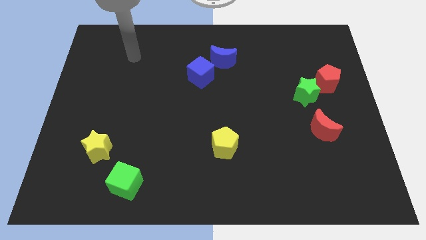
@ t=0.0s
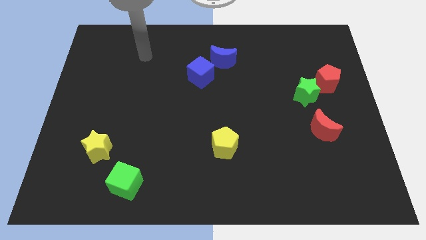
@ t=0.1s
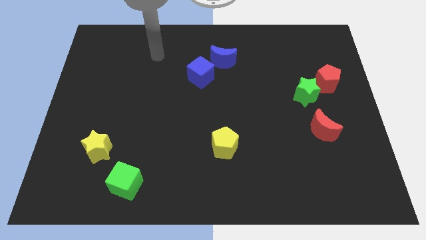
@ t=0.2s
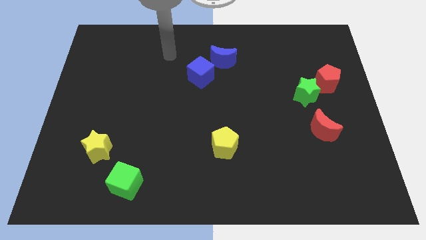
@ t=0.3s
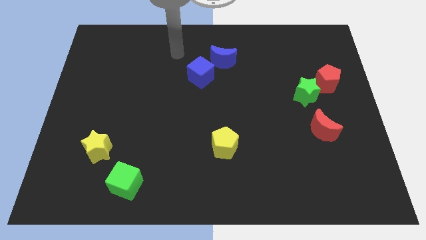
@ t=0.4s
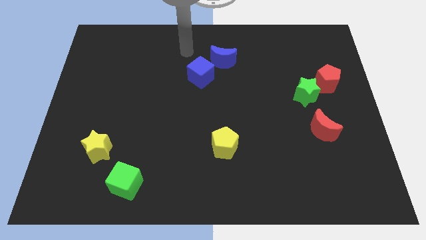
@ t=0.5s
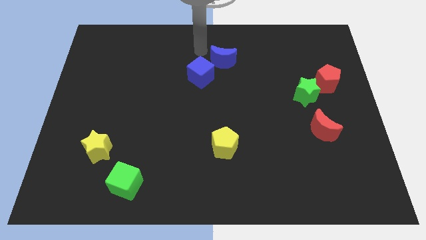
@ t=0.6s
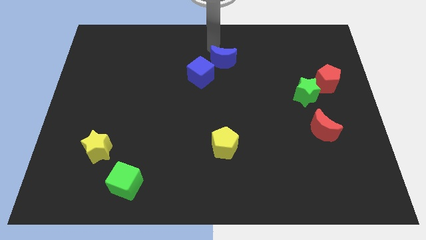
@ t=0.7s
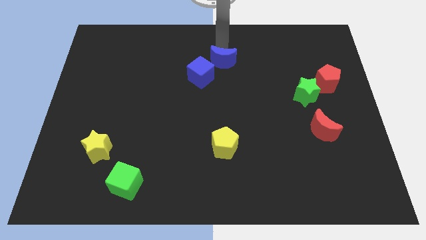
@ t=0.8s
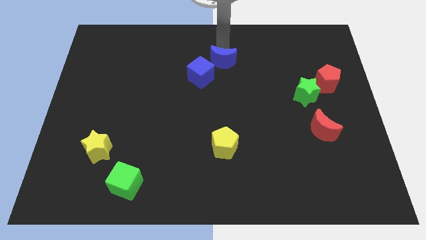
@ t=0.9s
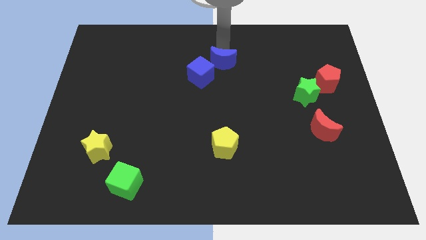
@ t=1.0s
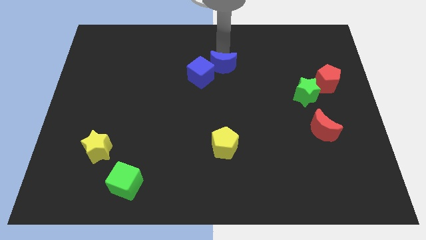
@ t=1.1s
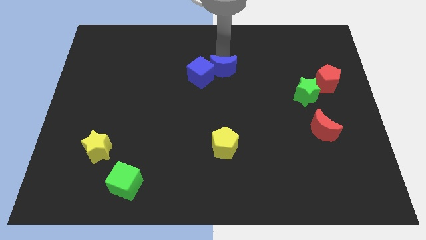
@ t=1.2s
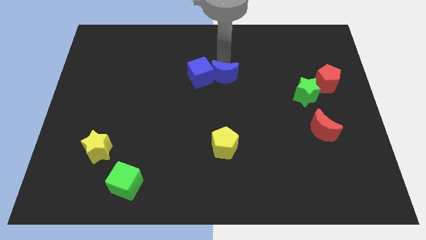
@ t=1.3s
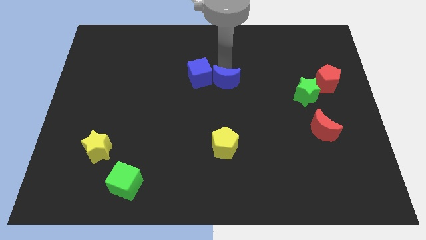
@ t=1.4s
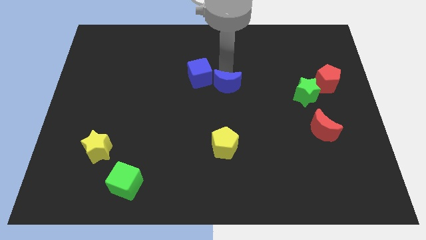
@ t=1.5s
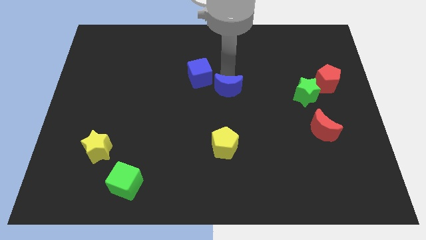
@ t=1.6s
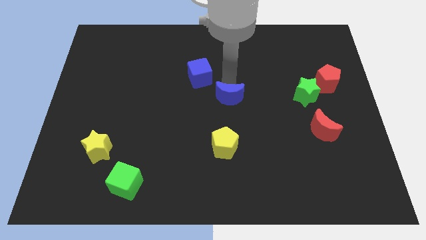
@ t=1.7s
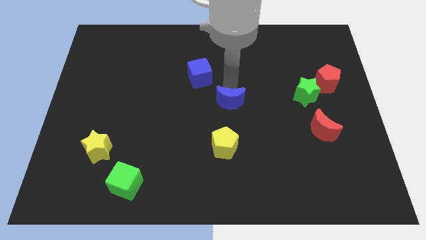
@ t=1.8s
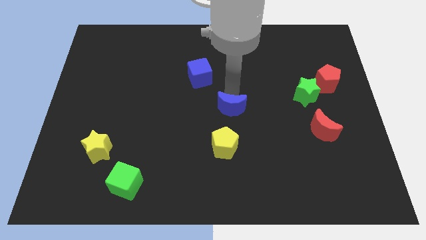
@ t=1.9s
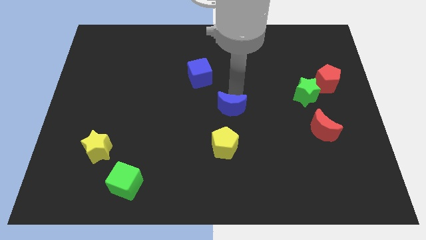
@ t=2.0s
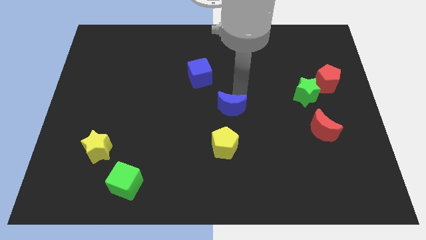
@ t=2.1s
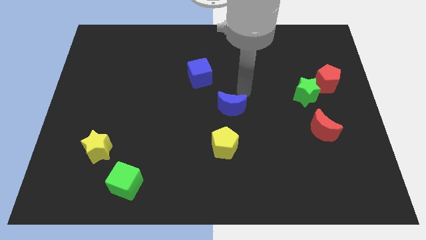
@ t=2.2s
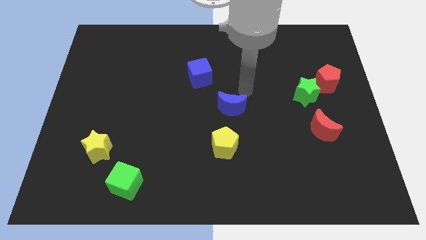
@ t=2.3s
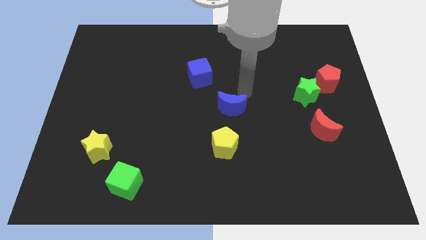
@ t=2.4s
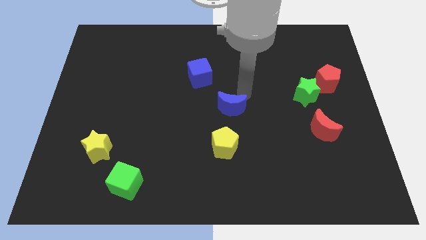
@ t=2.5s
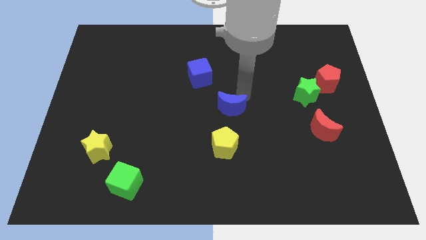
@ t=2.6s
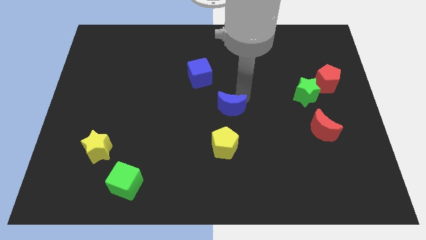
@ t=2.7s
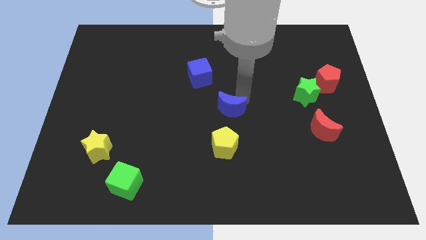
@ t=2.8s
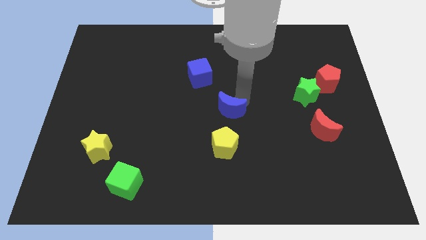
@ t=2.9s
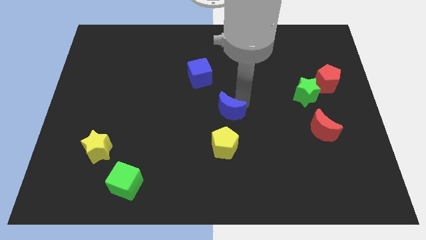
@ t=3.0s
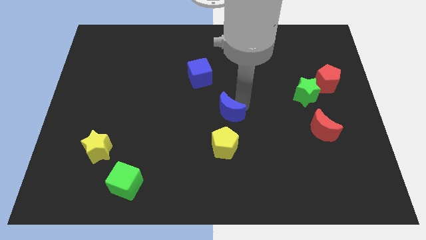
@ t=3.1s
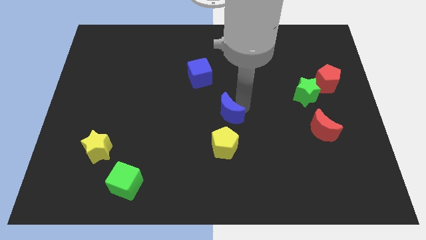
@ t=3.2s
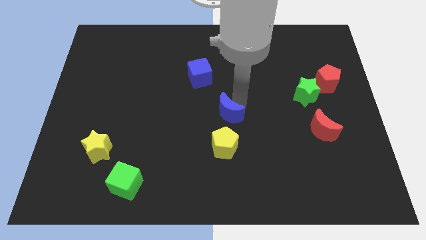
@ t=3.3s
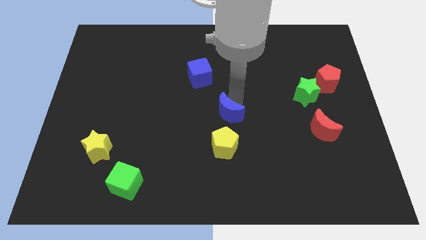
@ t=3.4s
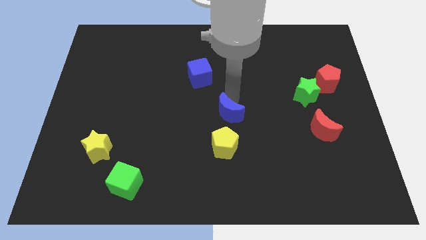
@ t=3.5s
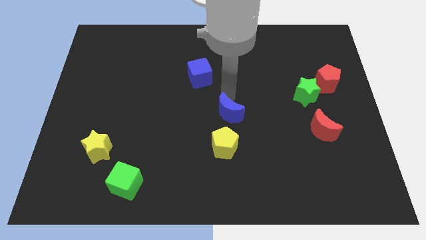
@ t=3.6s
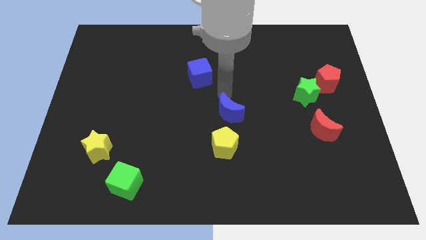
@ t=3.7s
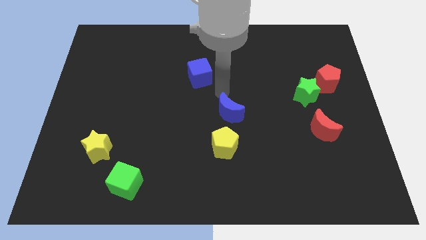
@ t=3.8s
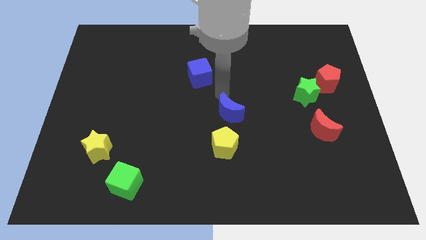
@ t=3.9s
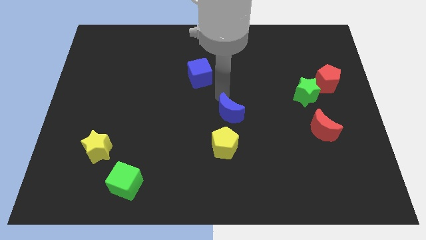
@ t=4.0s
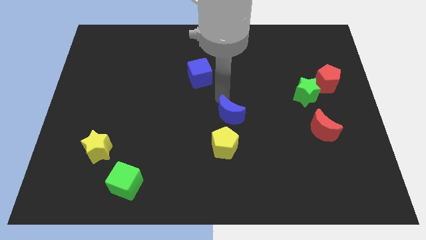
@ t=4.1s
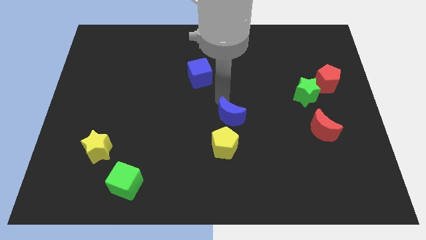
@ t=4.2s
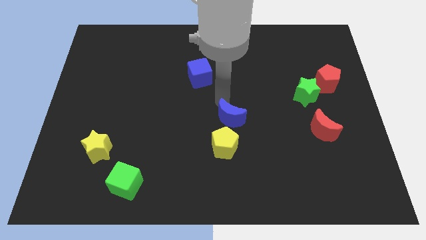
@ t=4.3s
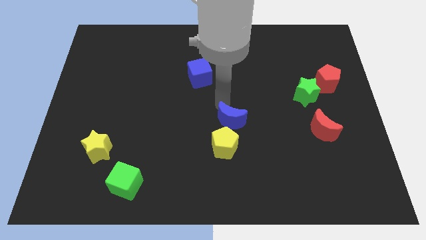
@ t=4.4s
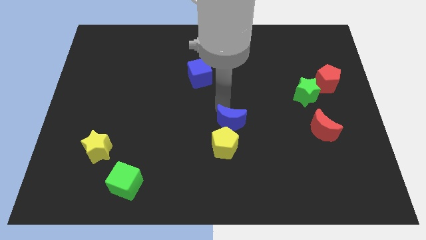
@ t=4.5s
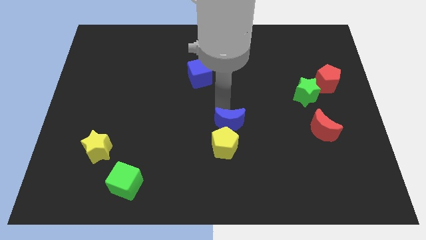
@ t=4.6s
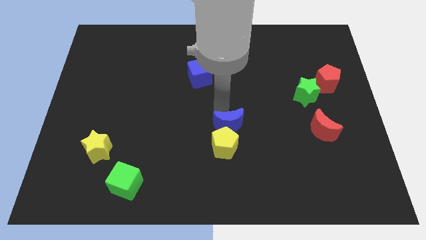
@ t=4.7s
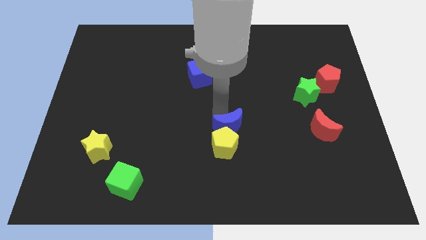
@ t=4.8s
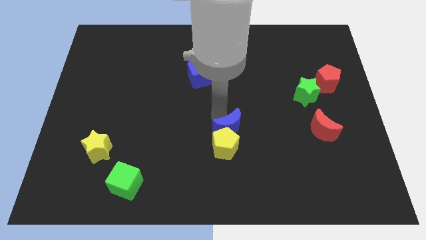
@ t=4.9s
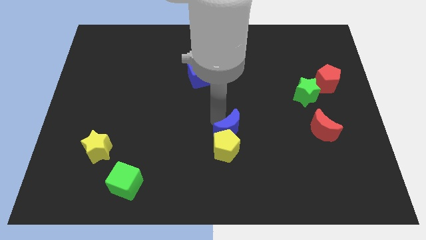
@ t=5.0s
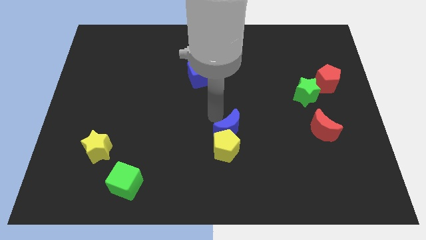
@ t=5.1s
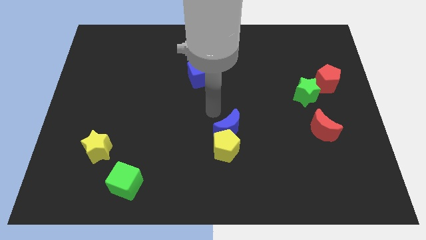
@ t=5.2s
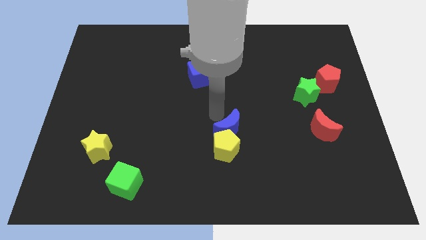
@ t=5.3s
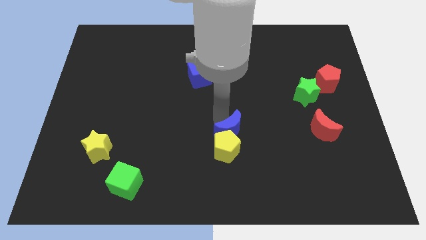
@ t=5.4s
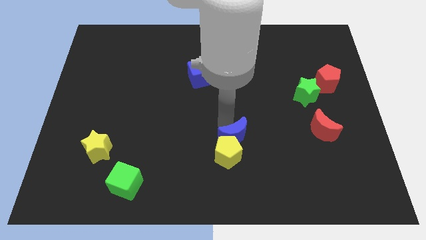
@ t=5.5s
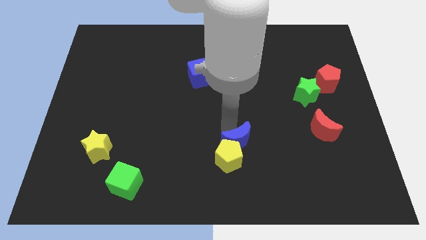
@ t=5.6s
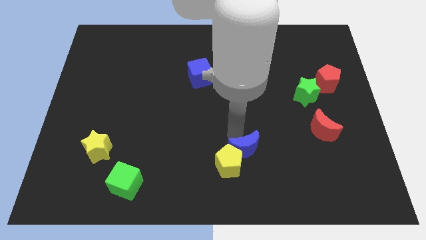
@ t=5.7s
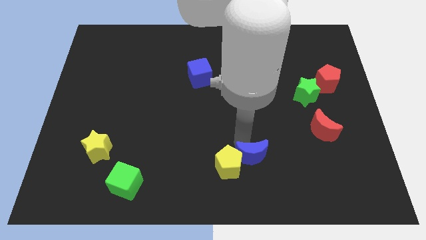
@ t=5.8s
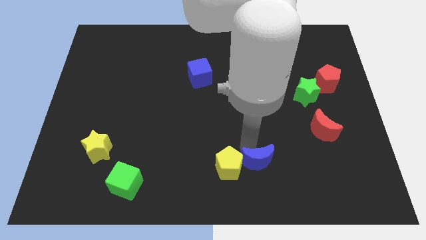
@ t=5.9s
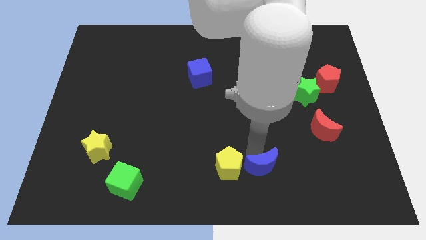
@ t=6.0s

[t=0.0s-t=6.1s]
put the blue moon to the bottom right side of the yellow pentagon
